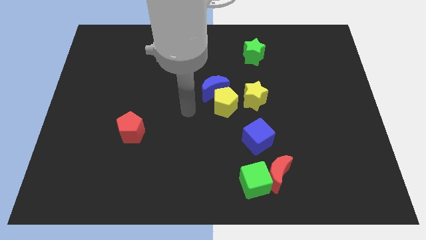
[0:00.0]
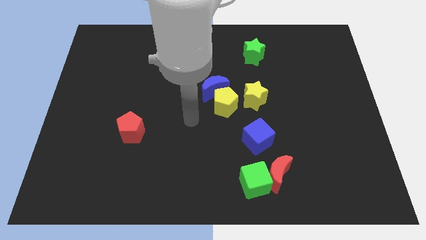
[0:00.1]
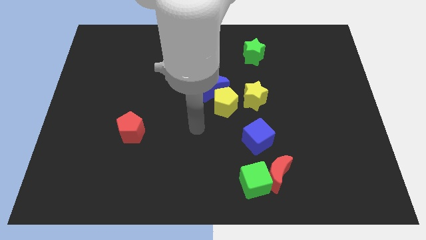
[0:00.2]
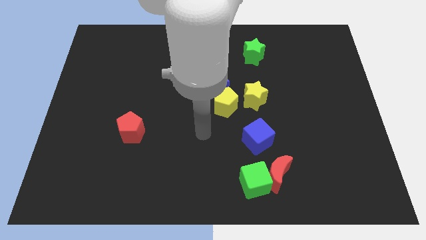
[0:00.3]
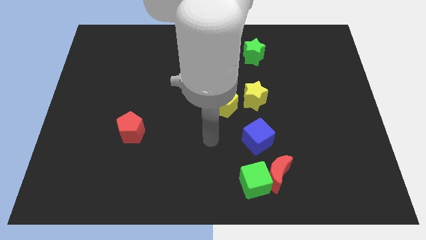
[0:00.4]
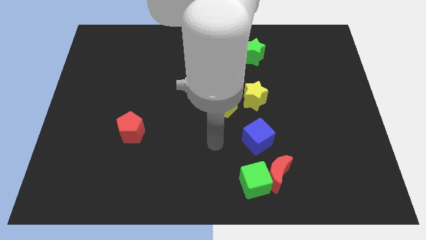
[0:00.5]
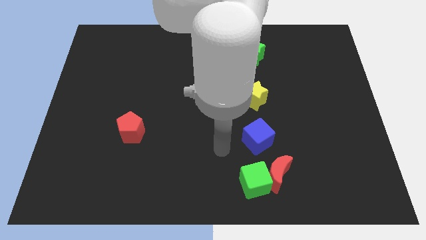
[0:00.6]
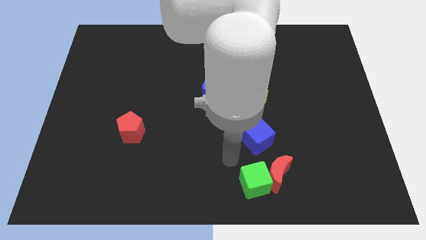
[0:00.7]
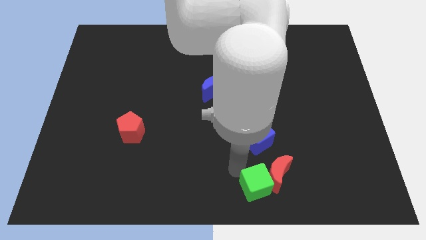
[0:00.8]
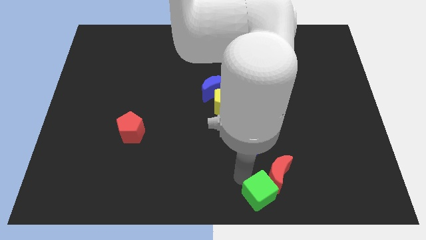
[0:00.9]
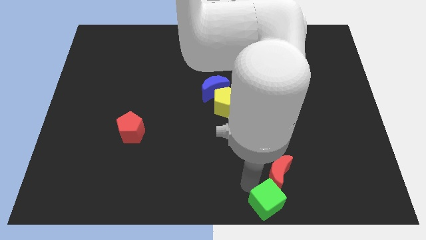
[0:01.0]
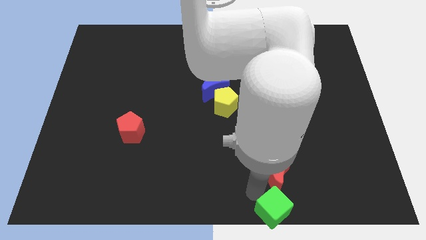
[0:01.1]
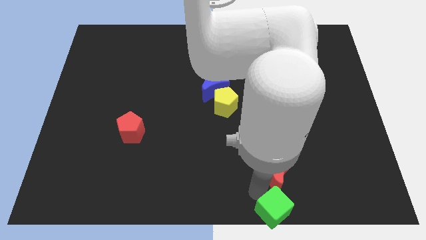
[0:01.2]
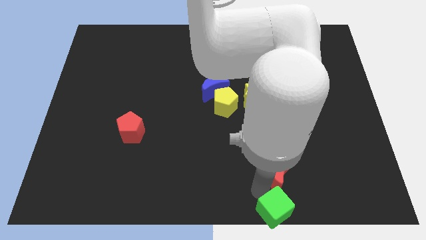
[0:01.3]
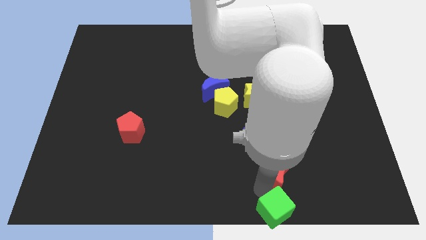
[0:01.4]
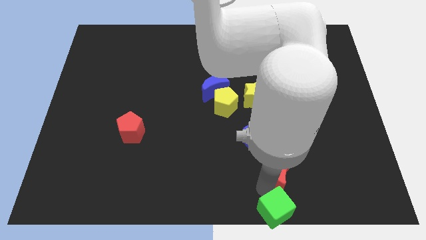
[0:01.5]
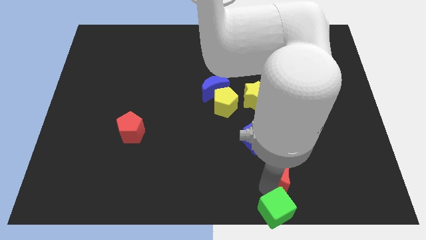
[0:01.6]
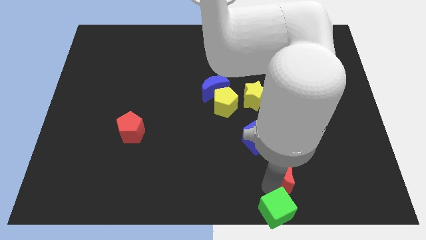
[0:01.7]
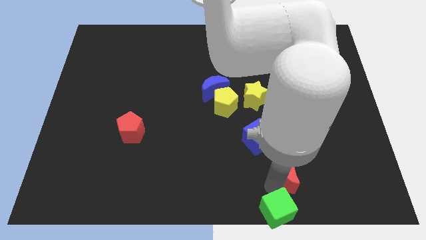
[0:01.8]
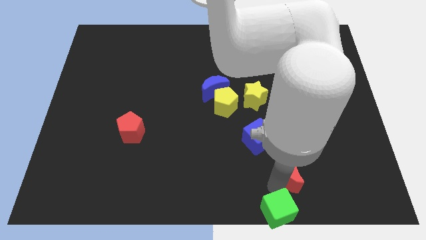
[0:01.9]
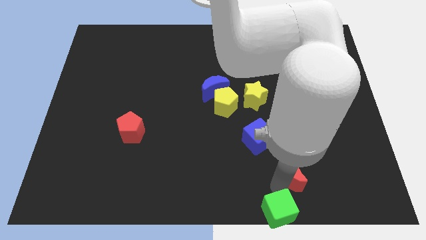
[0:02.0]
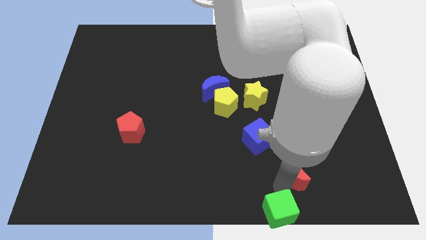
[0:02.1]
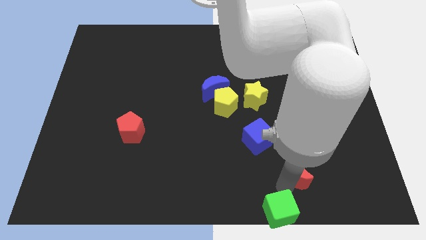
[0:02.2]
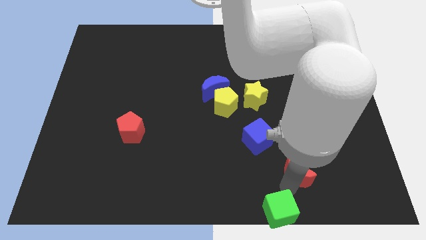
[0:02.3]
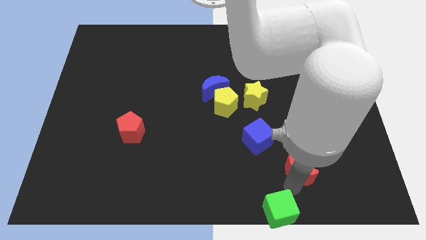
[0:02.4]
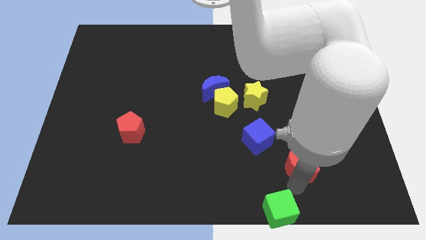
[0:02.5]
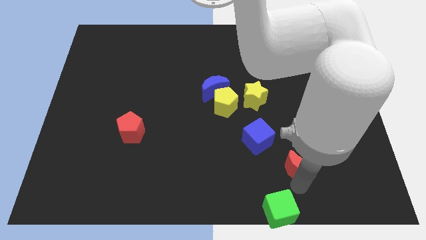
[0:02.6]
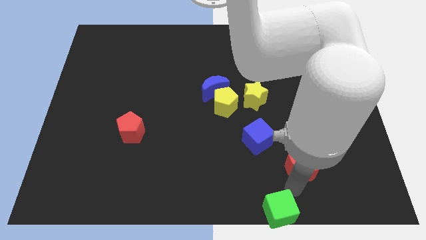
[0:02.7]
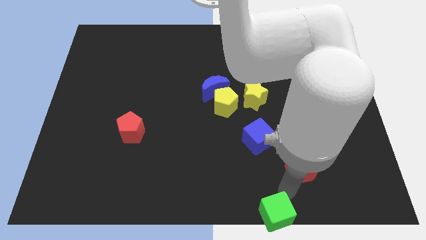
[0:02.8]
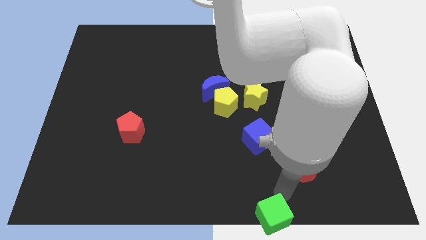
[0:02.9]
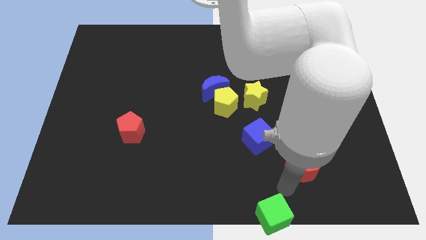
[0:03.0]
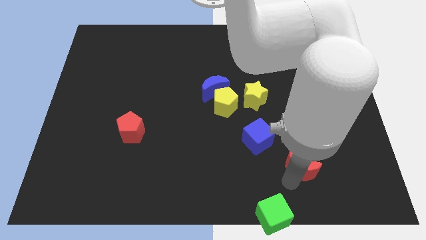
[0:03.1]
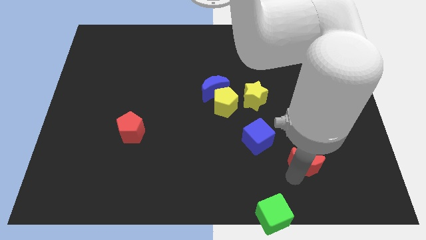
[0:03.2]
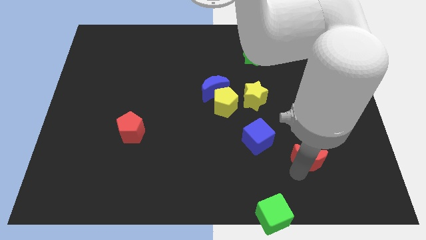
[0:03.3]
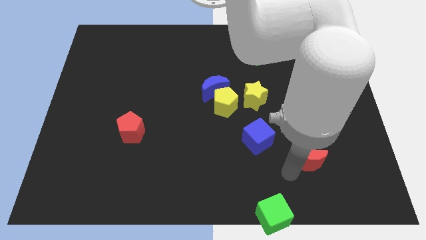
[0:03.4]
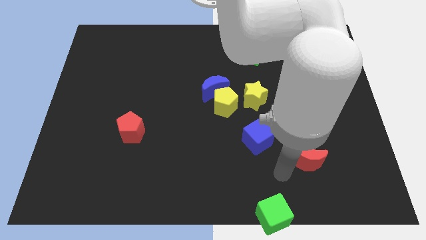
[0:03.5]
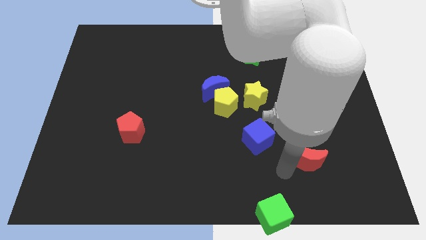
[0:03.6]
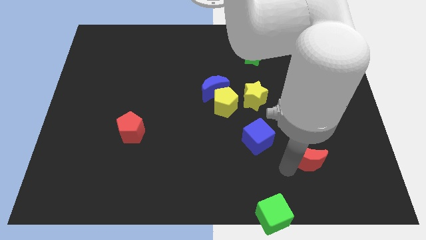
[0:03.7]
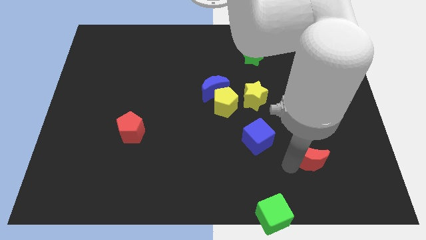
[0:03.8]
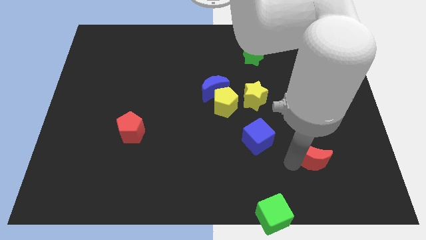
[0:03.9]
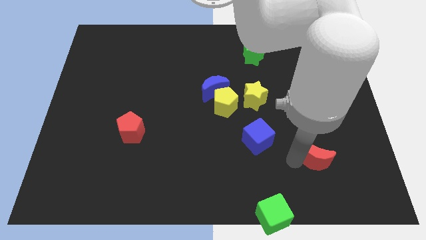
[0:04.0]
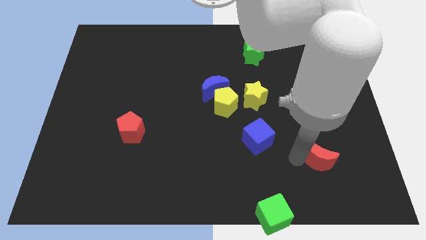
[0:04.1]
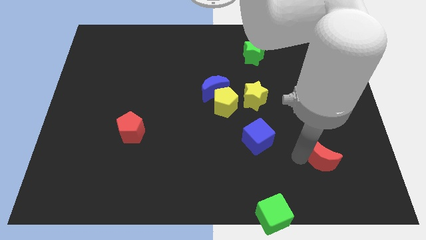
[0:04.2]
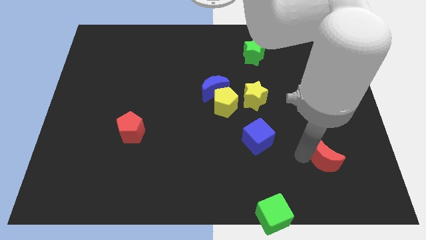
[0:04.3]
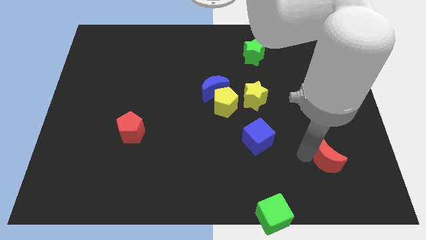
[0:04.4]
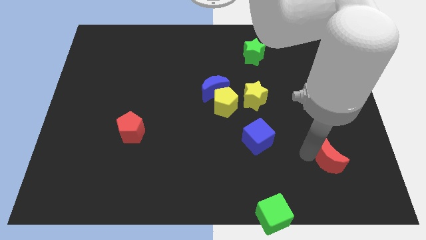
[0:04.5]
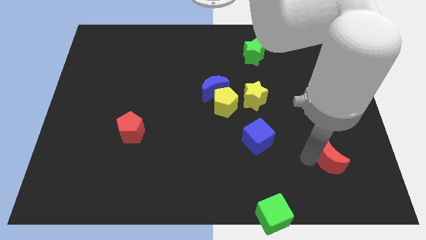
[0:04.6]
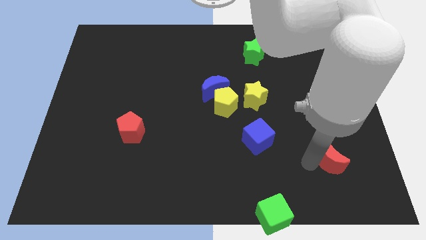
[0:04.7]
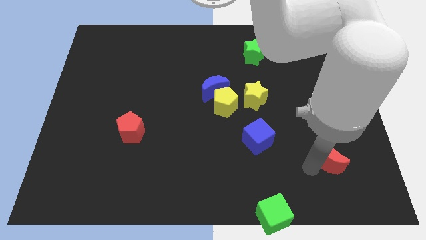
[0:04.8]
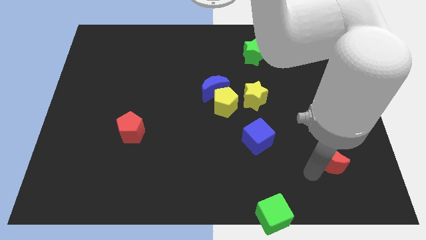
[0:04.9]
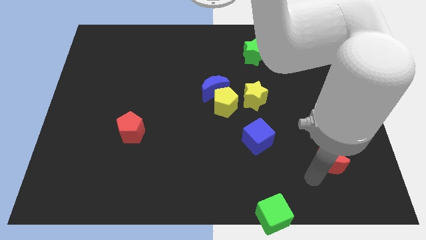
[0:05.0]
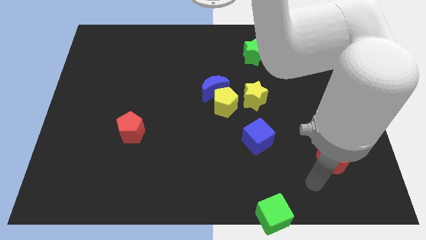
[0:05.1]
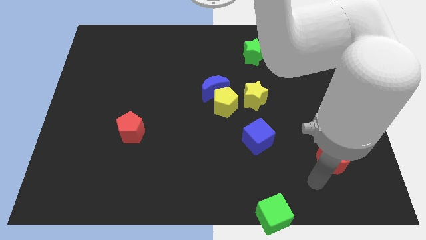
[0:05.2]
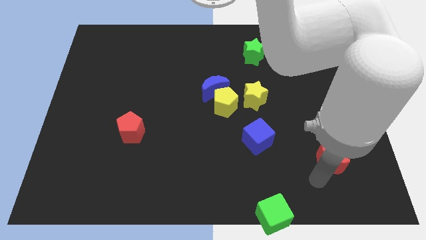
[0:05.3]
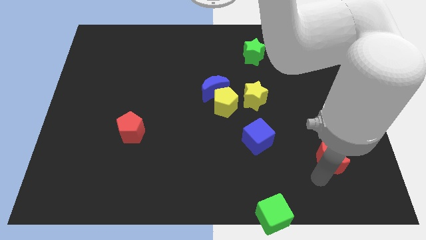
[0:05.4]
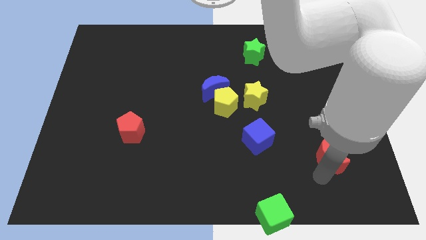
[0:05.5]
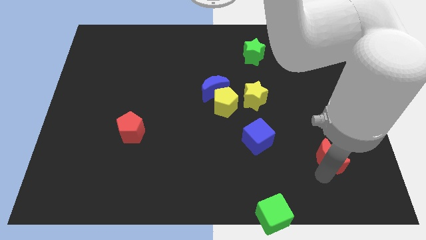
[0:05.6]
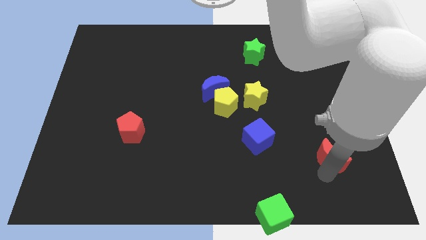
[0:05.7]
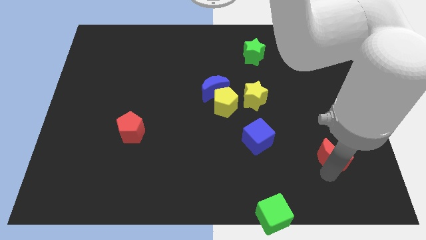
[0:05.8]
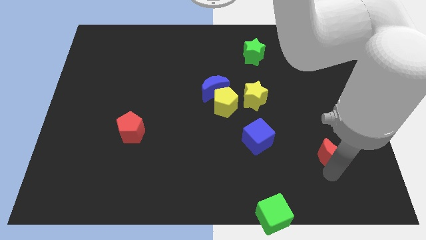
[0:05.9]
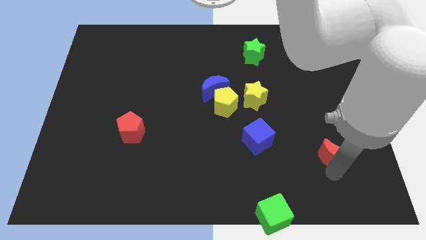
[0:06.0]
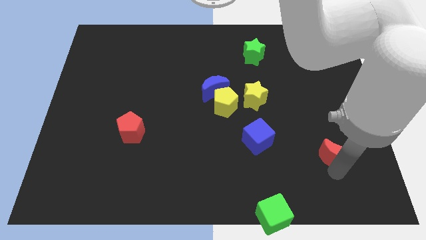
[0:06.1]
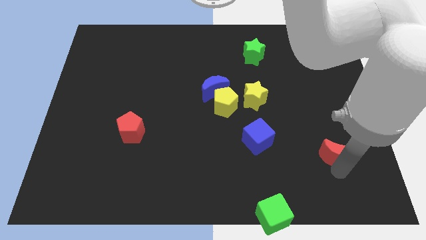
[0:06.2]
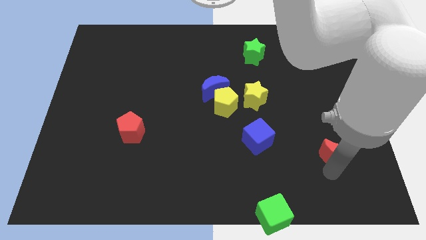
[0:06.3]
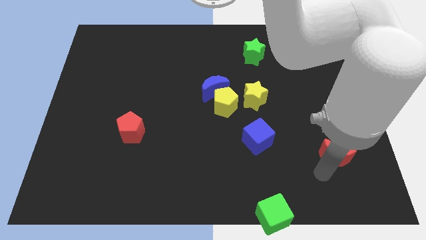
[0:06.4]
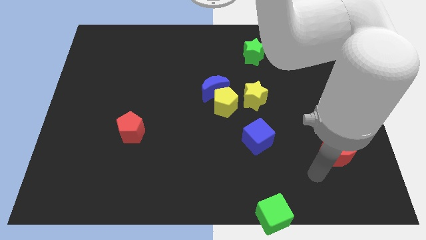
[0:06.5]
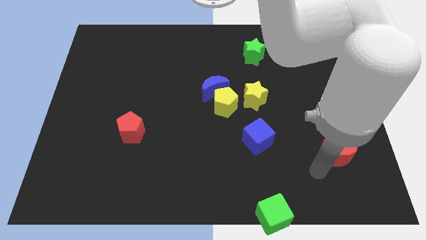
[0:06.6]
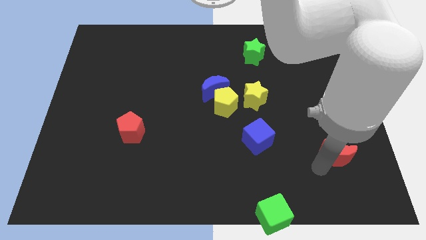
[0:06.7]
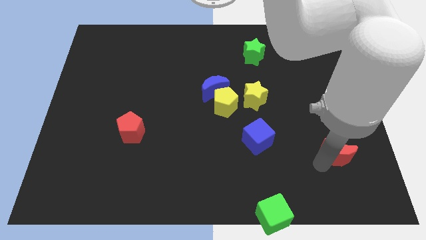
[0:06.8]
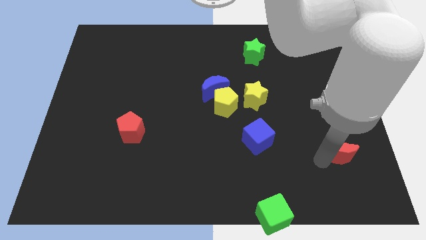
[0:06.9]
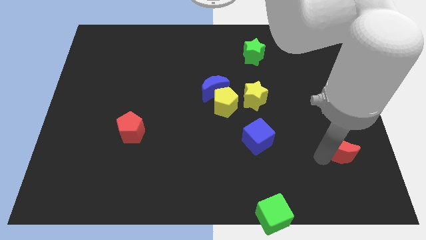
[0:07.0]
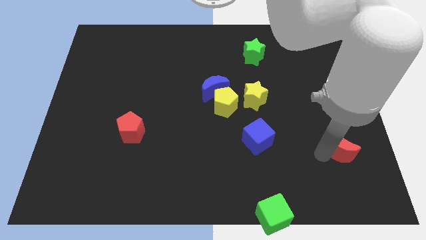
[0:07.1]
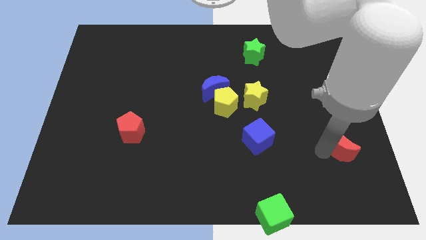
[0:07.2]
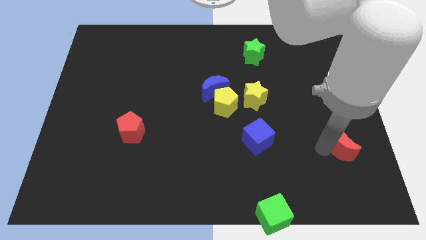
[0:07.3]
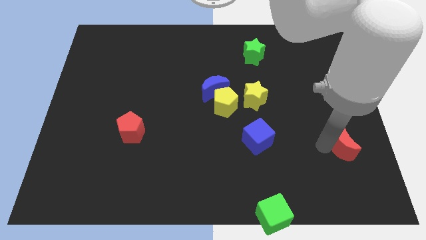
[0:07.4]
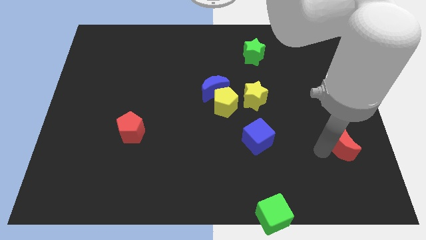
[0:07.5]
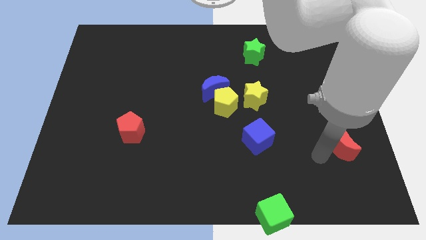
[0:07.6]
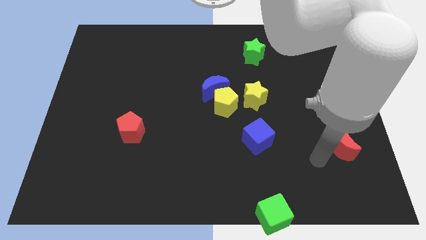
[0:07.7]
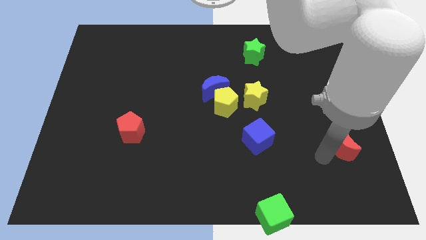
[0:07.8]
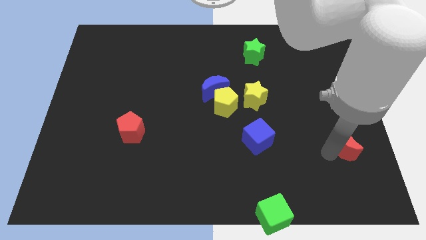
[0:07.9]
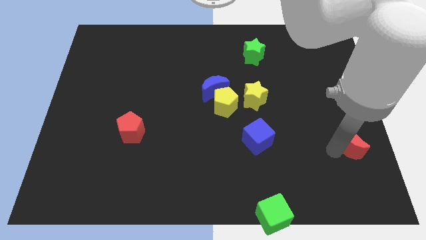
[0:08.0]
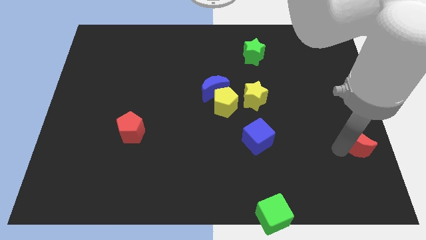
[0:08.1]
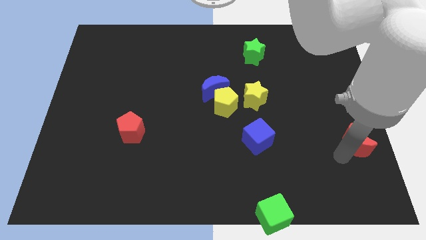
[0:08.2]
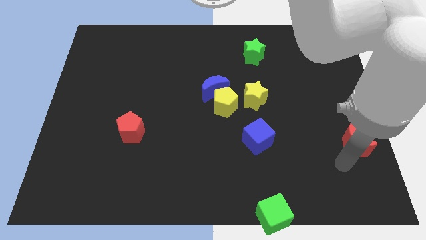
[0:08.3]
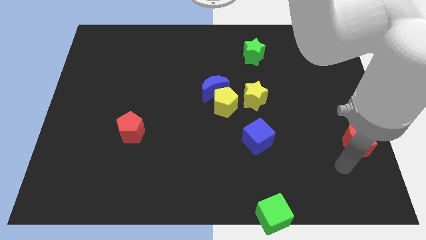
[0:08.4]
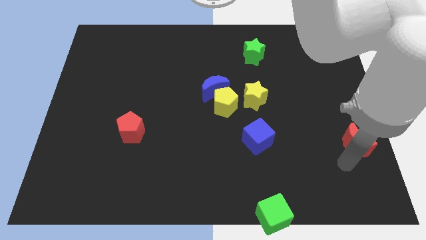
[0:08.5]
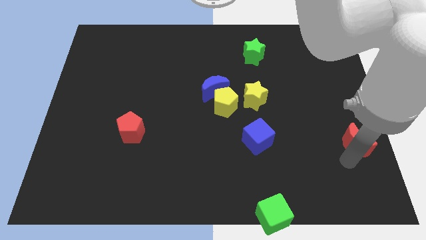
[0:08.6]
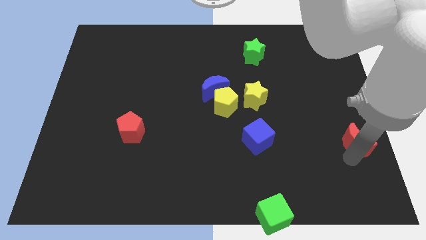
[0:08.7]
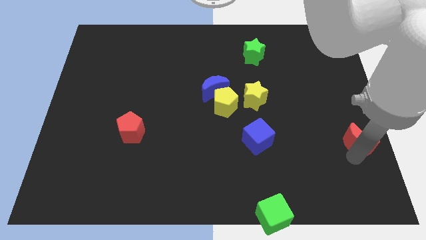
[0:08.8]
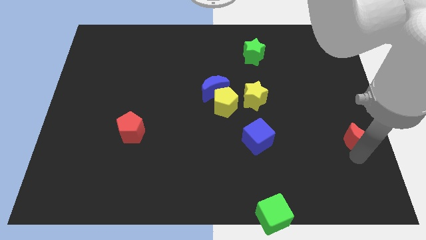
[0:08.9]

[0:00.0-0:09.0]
push the red moon to the right side of the board
